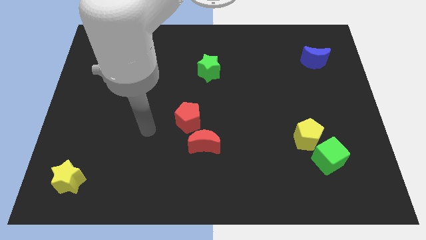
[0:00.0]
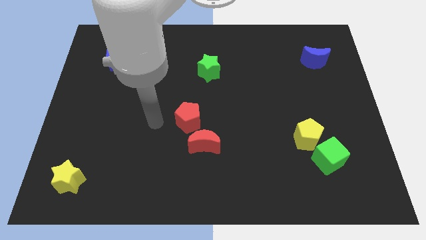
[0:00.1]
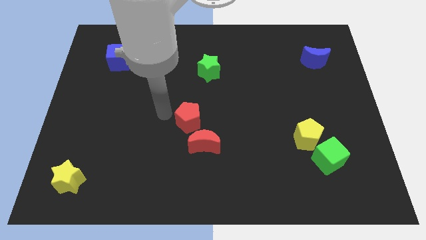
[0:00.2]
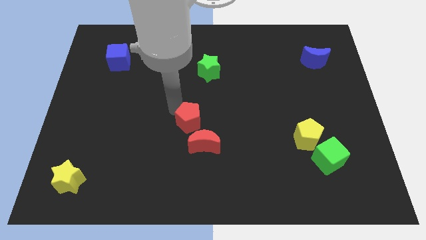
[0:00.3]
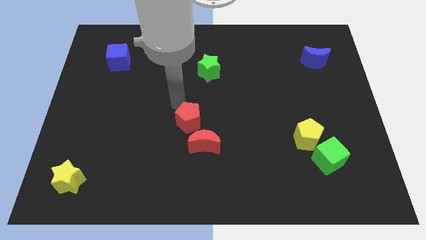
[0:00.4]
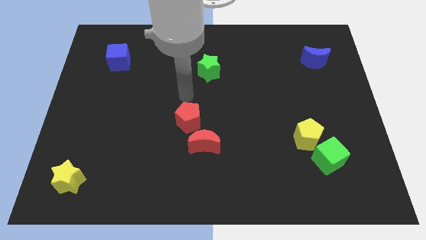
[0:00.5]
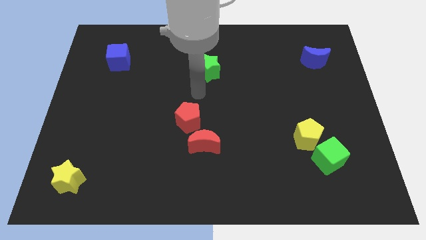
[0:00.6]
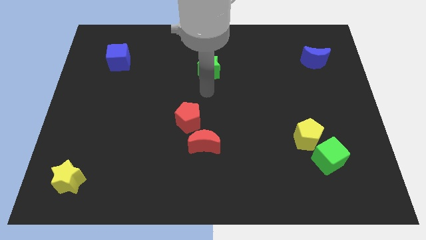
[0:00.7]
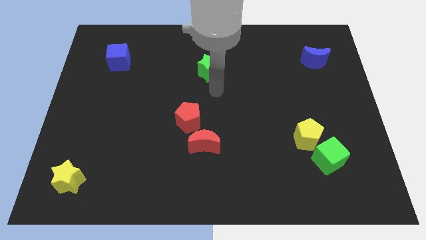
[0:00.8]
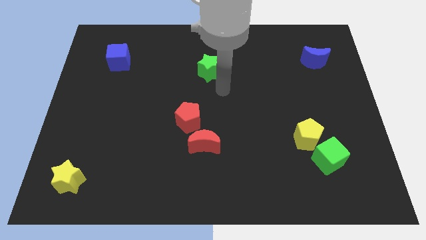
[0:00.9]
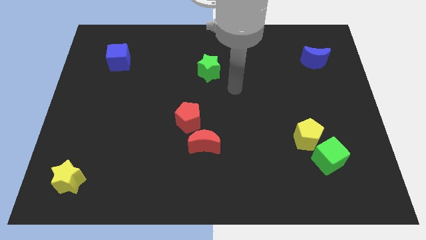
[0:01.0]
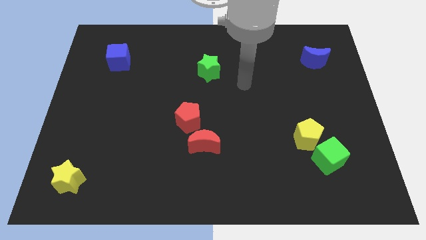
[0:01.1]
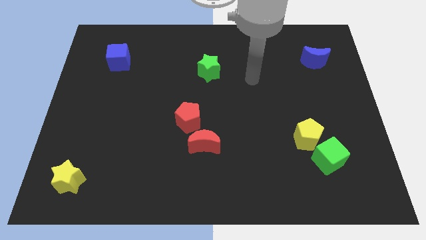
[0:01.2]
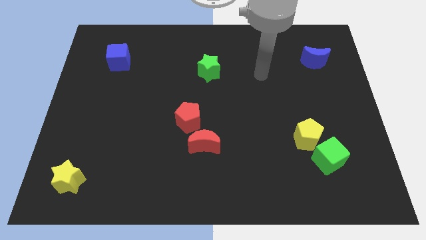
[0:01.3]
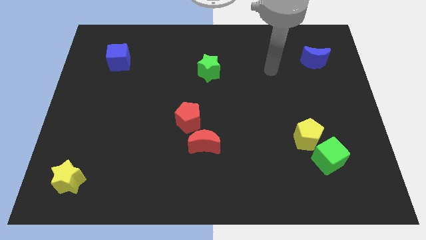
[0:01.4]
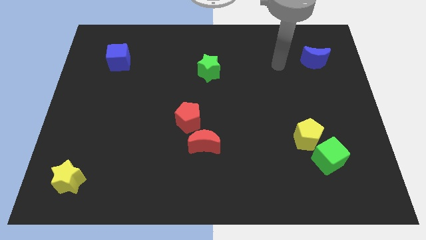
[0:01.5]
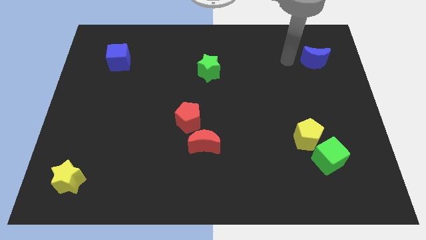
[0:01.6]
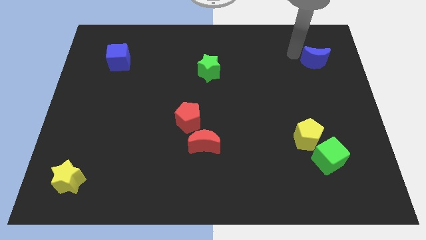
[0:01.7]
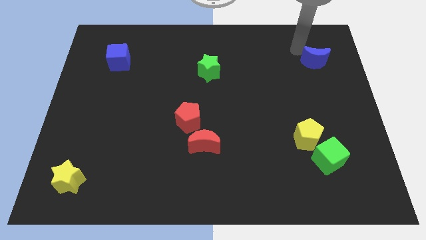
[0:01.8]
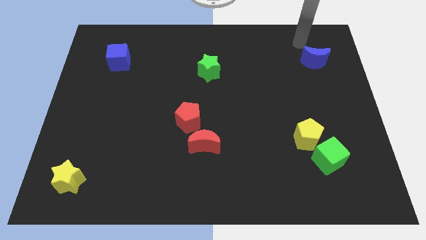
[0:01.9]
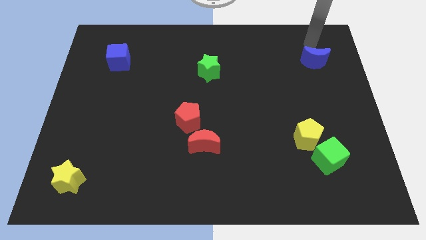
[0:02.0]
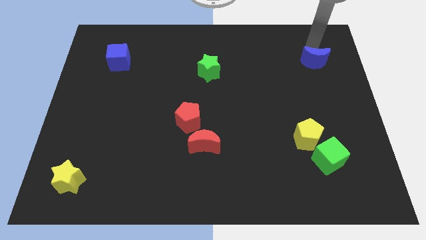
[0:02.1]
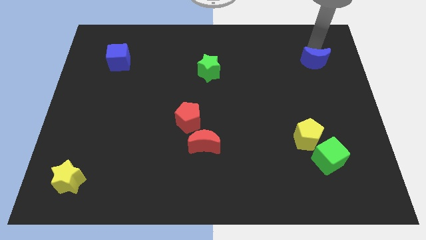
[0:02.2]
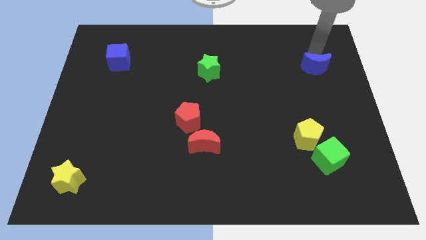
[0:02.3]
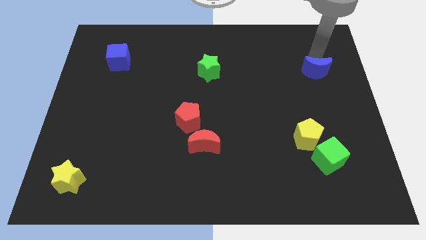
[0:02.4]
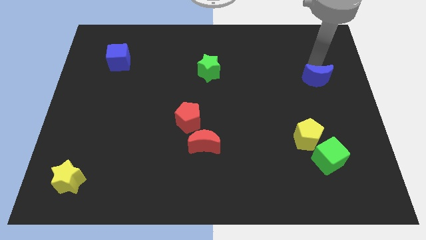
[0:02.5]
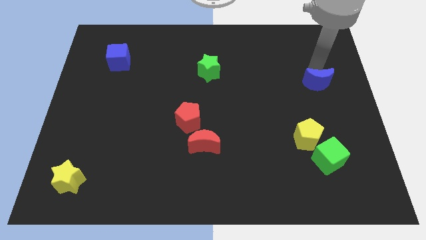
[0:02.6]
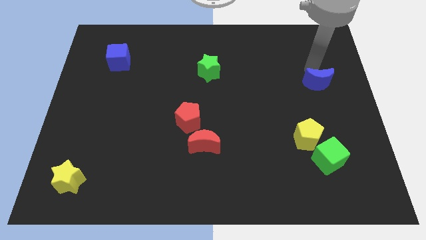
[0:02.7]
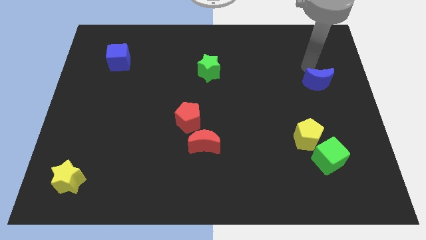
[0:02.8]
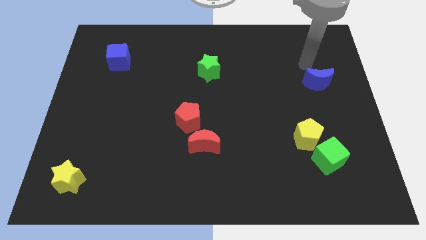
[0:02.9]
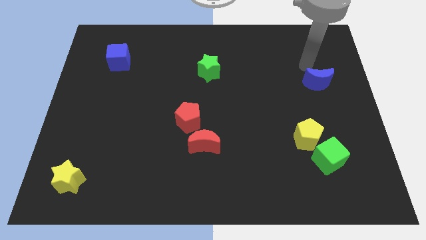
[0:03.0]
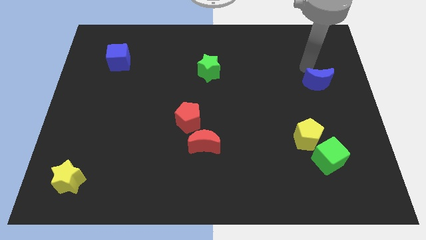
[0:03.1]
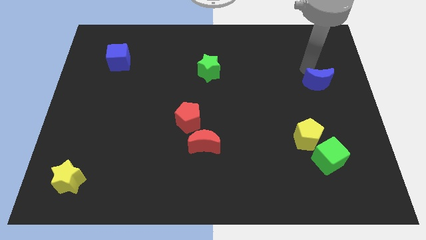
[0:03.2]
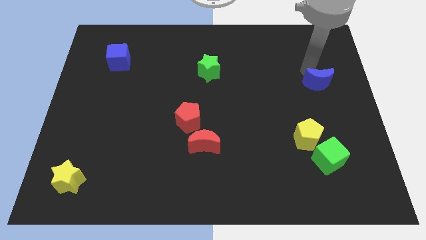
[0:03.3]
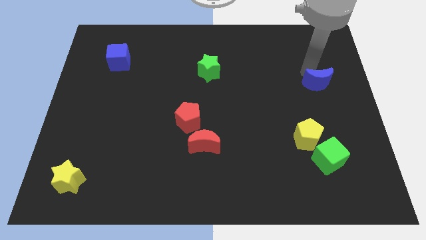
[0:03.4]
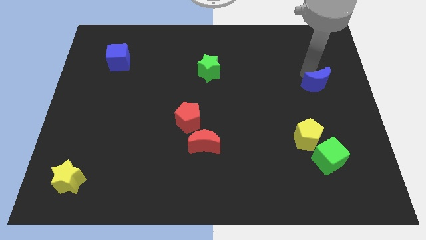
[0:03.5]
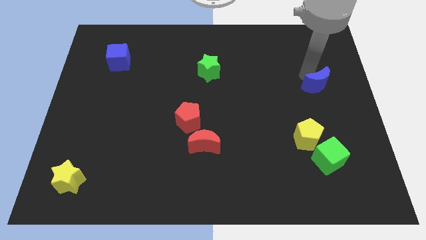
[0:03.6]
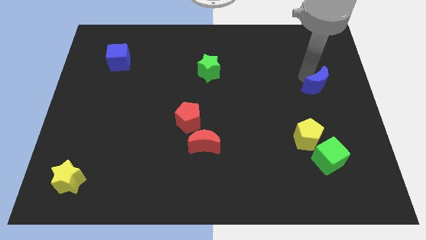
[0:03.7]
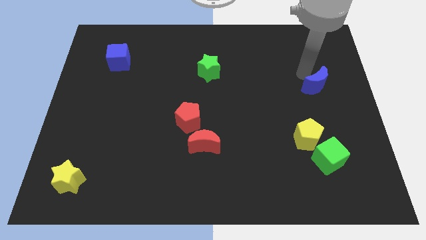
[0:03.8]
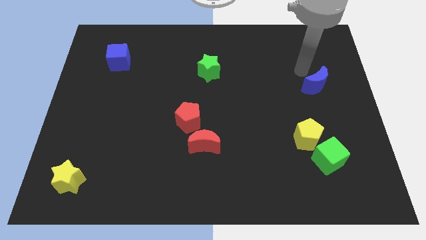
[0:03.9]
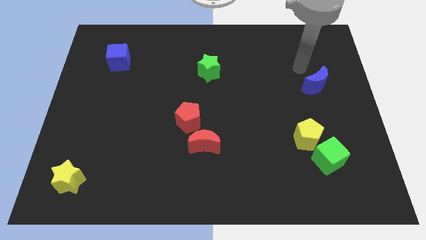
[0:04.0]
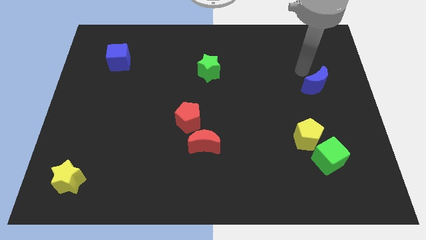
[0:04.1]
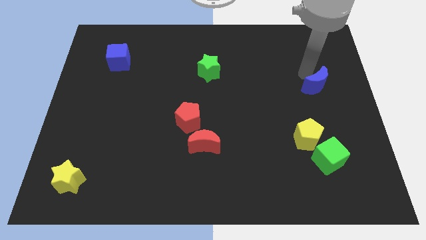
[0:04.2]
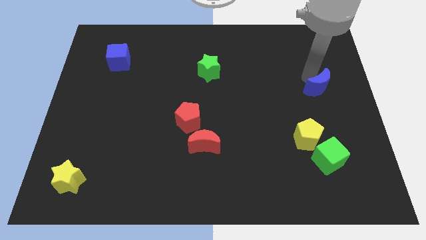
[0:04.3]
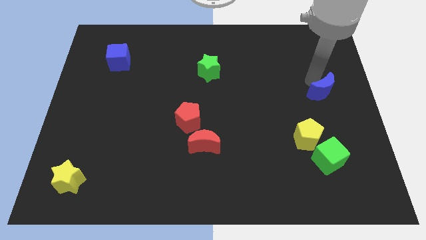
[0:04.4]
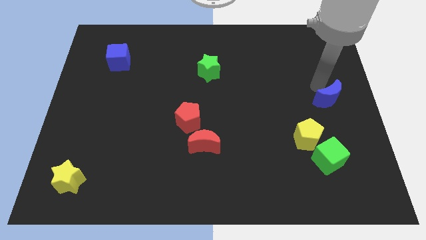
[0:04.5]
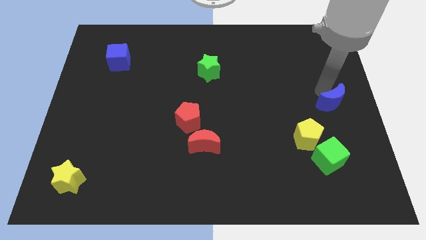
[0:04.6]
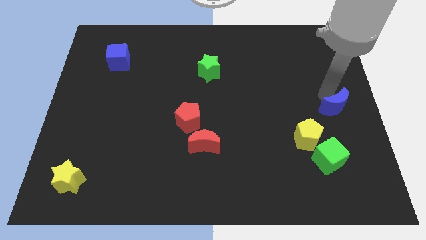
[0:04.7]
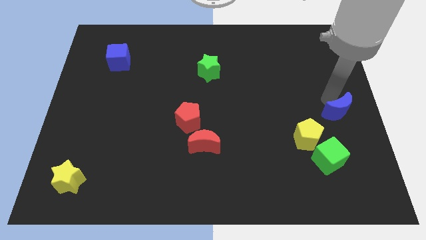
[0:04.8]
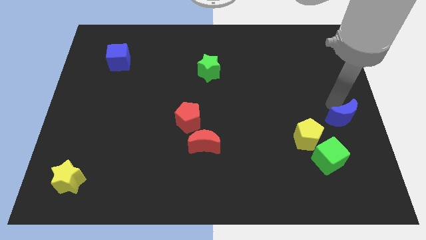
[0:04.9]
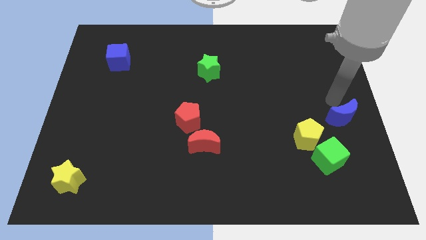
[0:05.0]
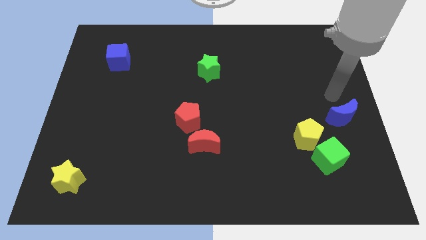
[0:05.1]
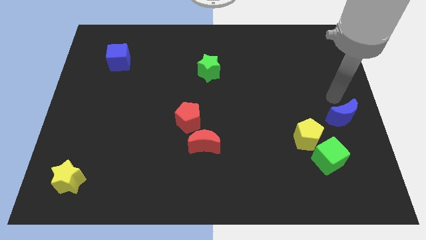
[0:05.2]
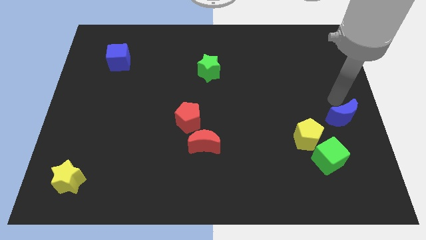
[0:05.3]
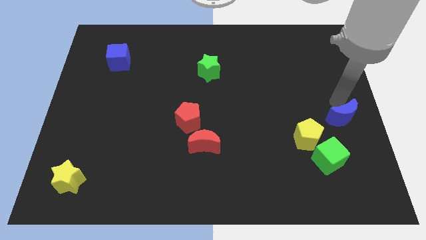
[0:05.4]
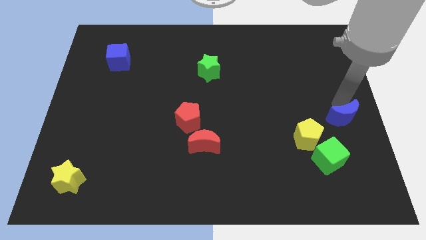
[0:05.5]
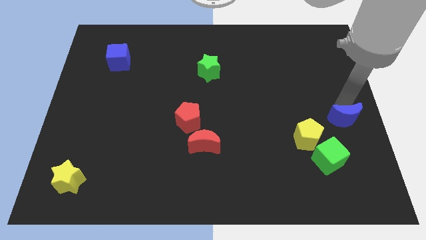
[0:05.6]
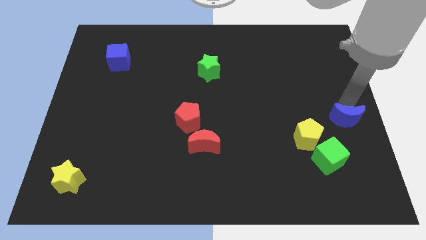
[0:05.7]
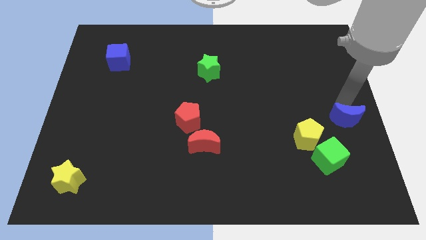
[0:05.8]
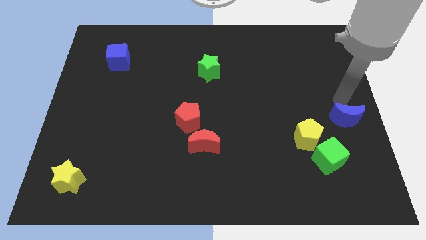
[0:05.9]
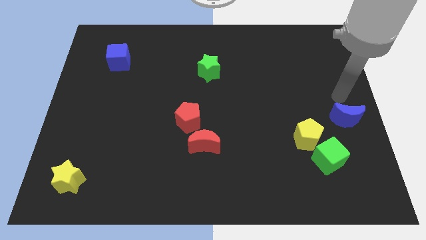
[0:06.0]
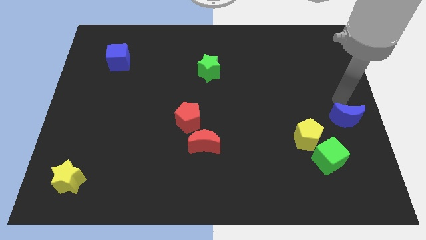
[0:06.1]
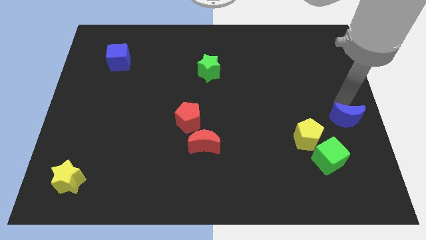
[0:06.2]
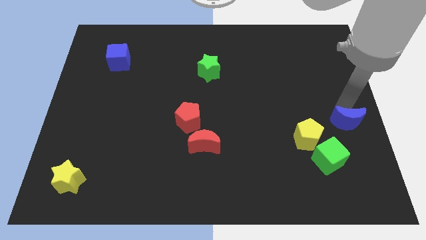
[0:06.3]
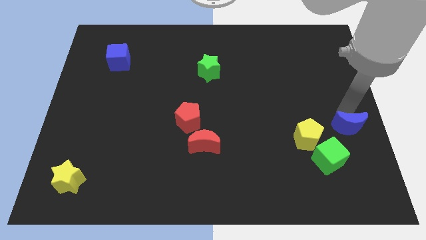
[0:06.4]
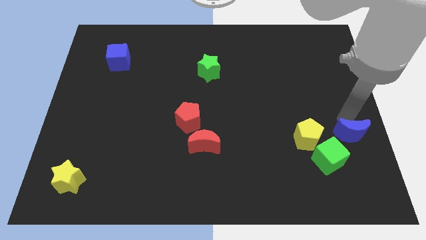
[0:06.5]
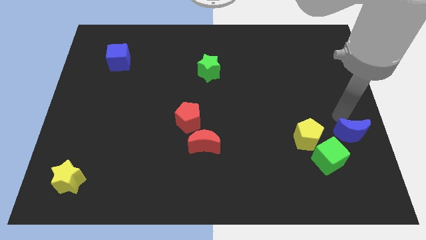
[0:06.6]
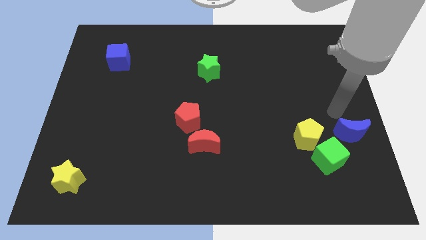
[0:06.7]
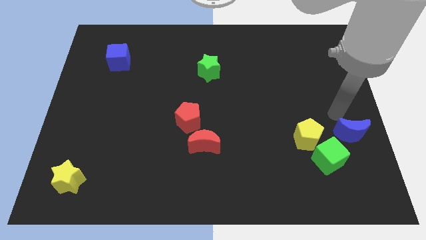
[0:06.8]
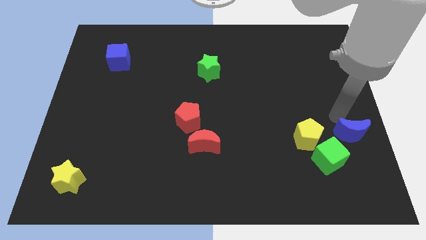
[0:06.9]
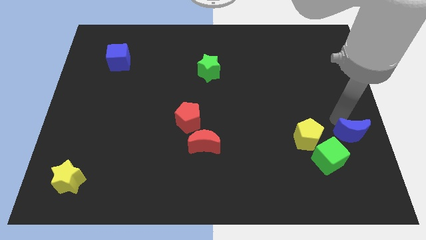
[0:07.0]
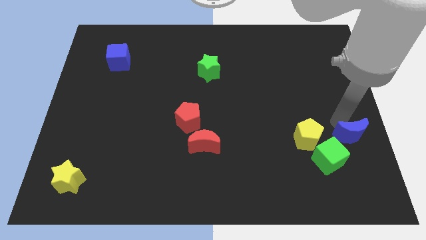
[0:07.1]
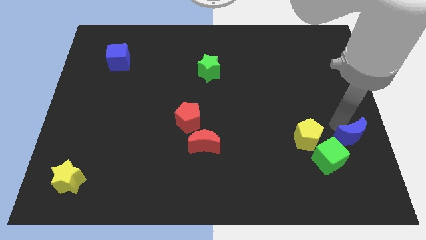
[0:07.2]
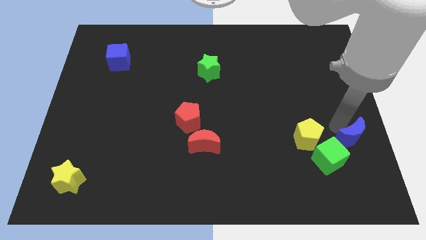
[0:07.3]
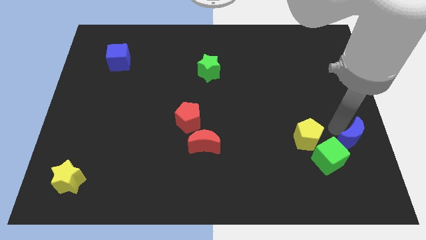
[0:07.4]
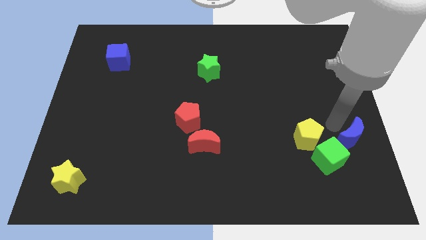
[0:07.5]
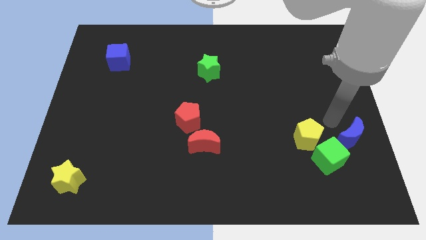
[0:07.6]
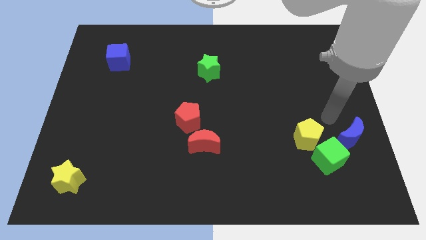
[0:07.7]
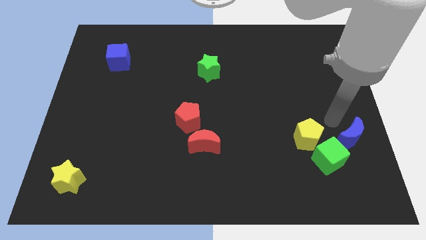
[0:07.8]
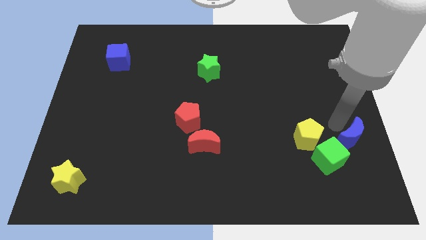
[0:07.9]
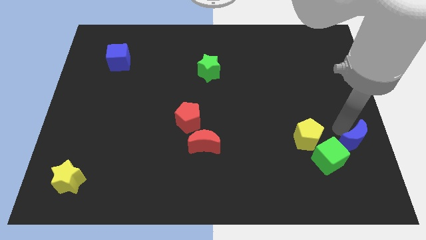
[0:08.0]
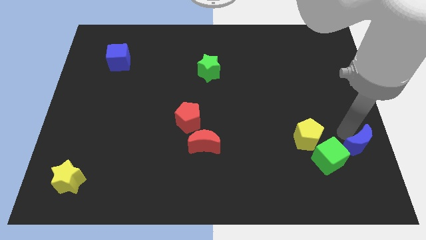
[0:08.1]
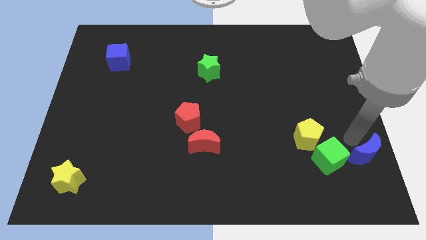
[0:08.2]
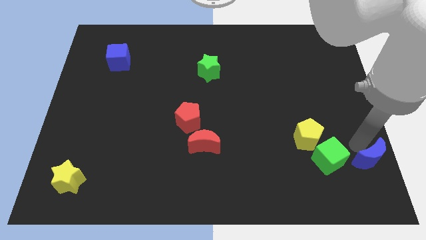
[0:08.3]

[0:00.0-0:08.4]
push the blue moon to the bottom right corner
